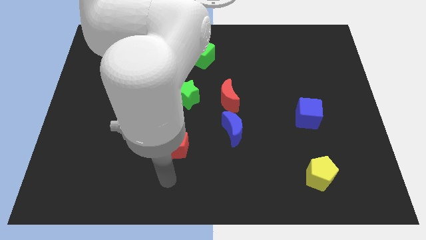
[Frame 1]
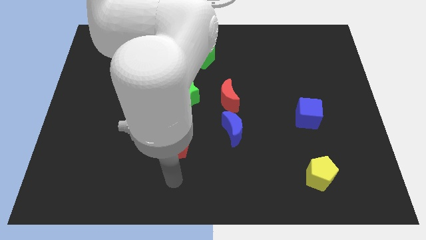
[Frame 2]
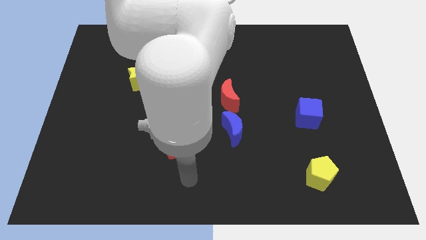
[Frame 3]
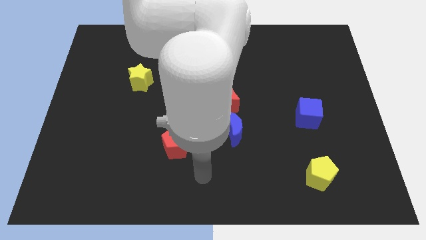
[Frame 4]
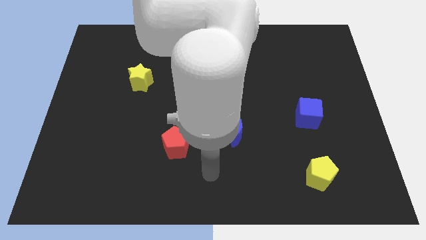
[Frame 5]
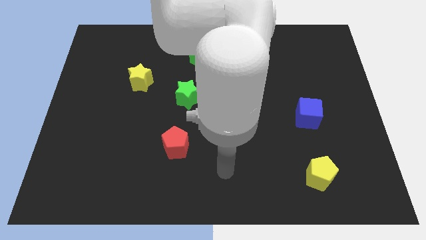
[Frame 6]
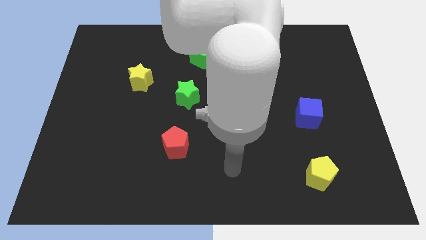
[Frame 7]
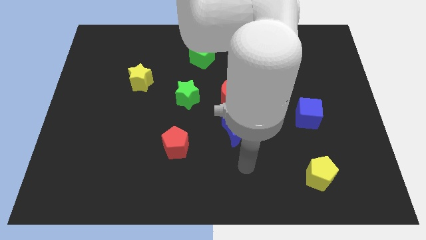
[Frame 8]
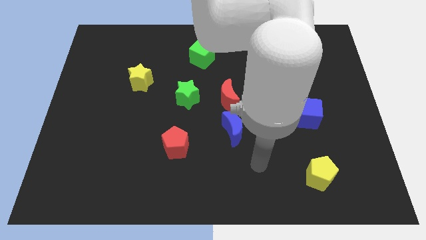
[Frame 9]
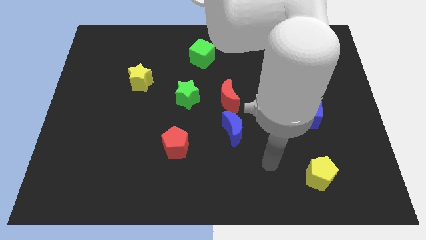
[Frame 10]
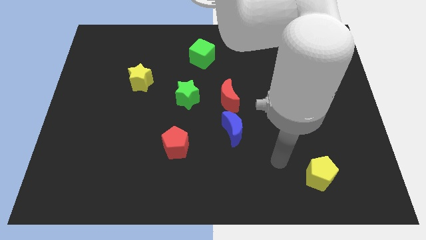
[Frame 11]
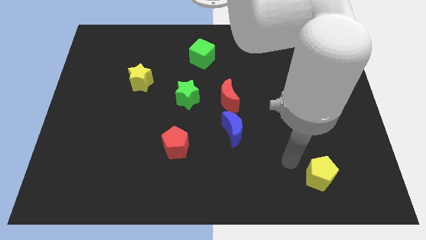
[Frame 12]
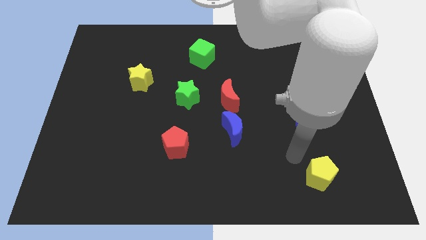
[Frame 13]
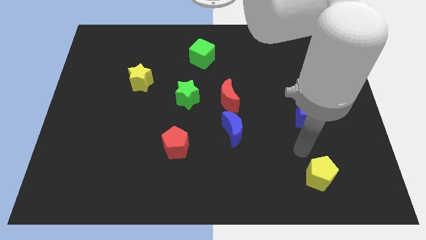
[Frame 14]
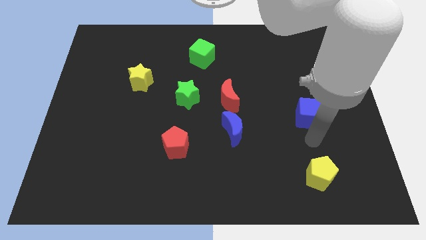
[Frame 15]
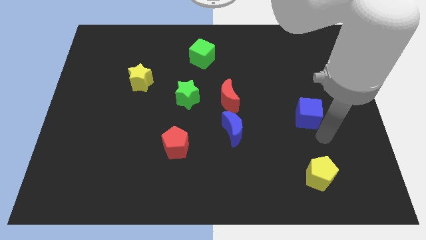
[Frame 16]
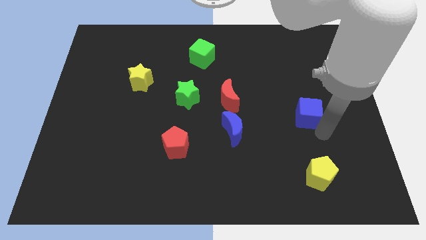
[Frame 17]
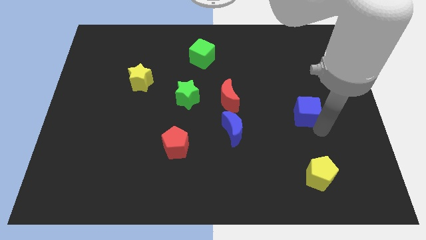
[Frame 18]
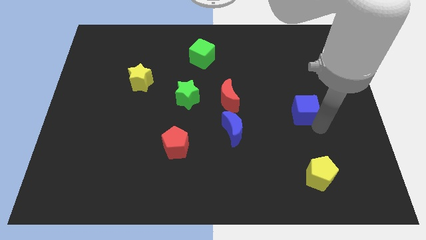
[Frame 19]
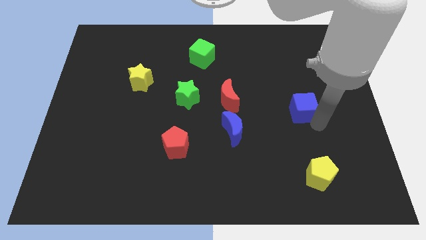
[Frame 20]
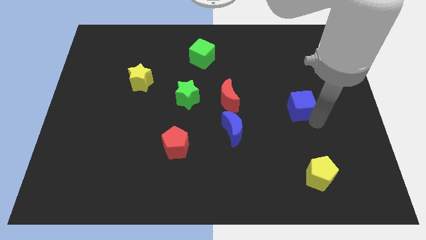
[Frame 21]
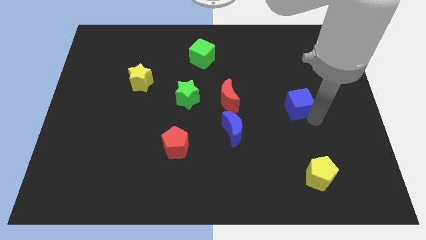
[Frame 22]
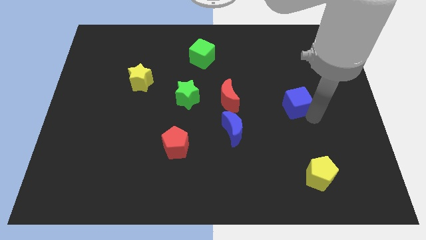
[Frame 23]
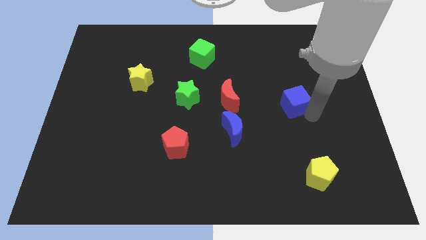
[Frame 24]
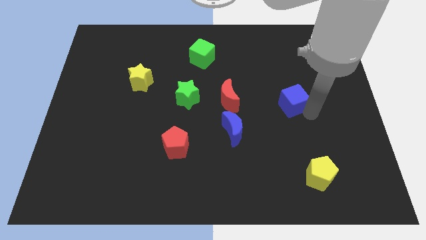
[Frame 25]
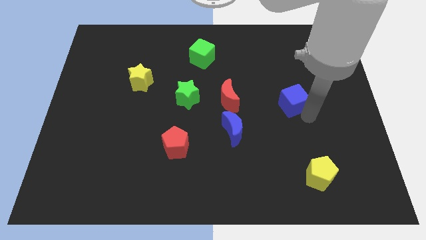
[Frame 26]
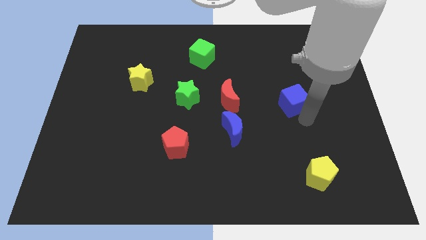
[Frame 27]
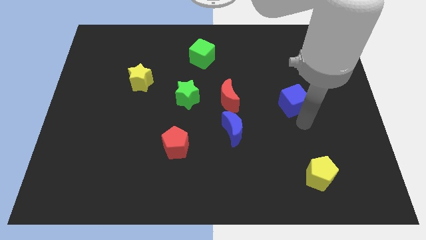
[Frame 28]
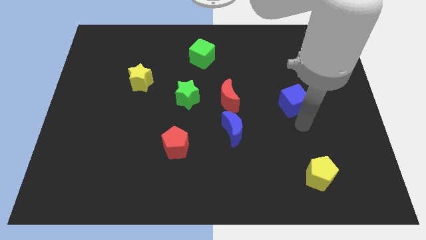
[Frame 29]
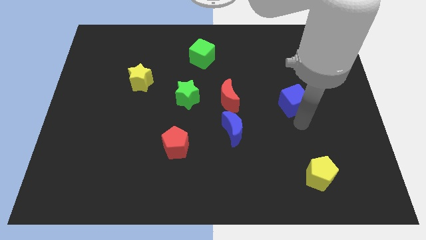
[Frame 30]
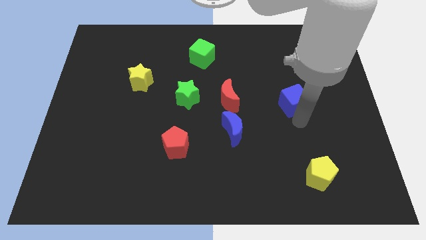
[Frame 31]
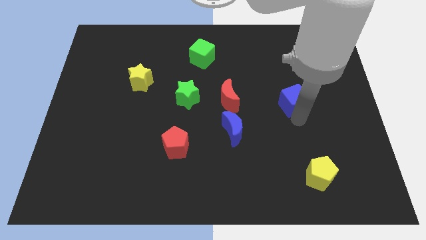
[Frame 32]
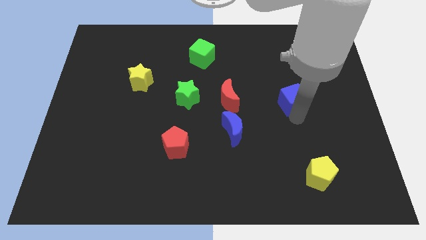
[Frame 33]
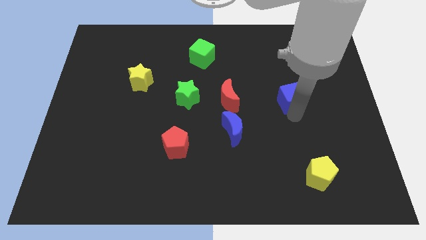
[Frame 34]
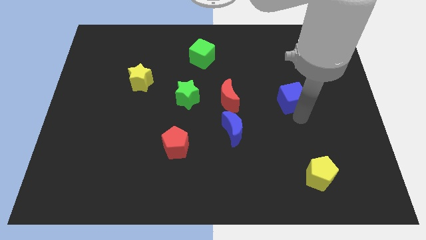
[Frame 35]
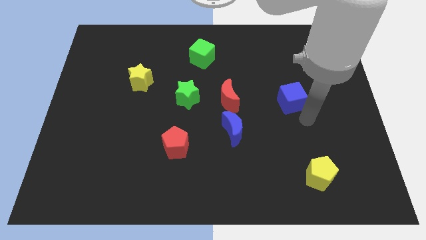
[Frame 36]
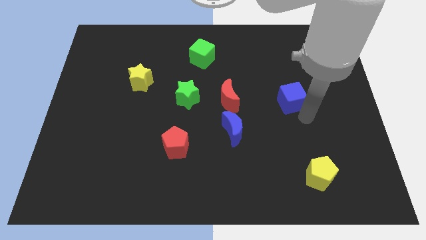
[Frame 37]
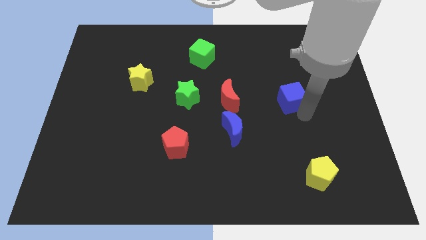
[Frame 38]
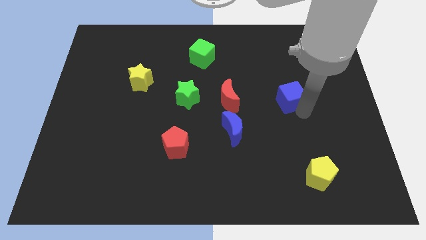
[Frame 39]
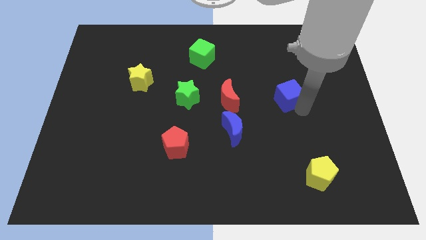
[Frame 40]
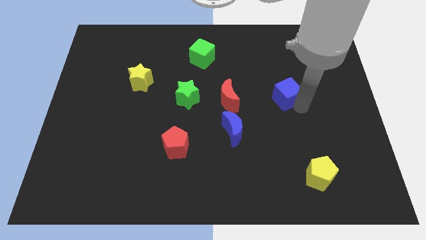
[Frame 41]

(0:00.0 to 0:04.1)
slightly slide the blue cube up and then left

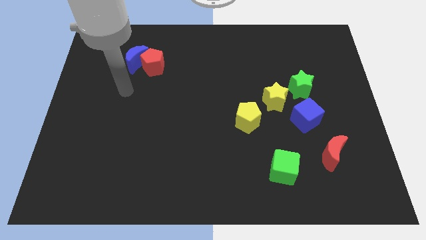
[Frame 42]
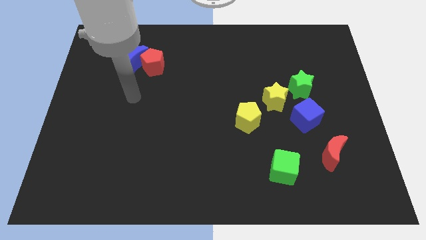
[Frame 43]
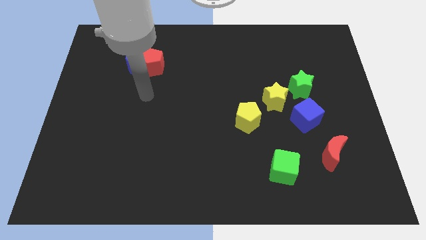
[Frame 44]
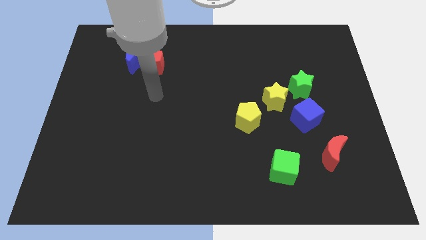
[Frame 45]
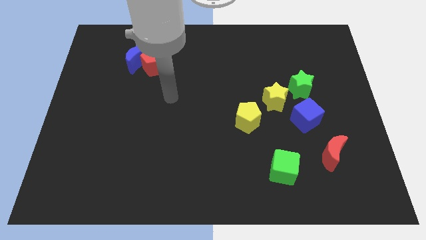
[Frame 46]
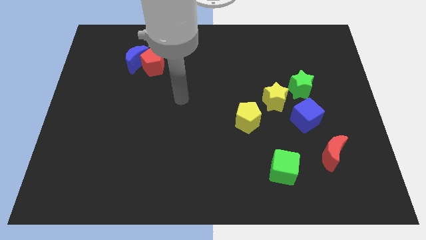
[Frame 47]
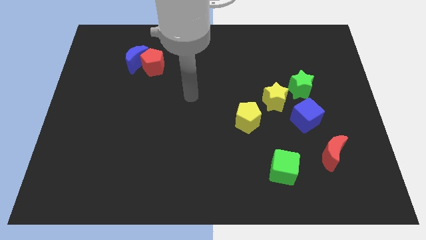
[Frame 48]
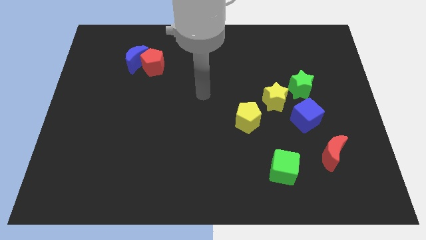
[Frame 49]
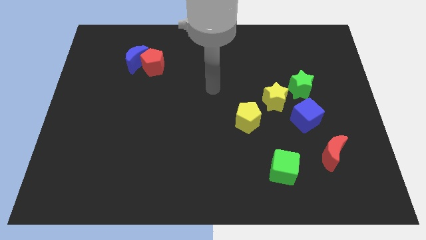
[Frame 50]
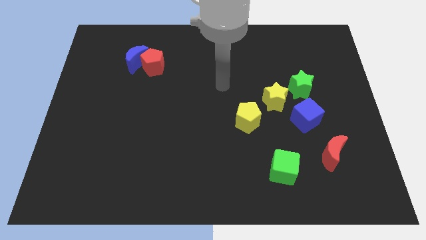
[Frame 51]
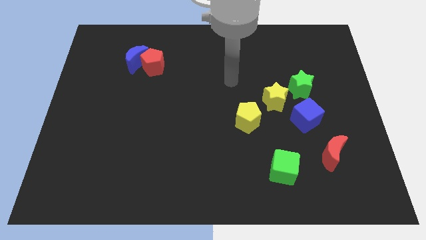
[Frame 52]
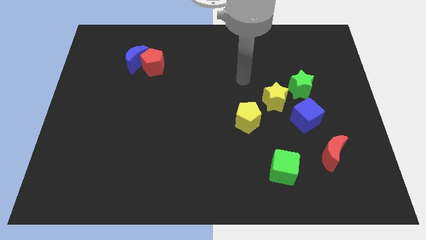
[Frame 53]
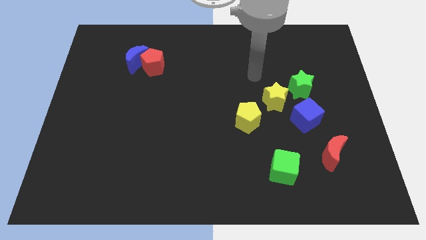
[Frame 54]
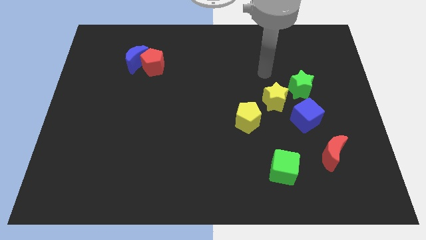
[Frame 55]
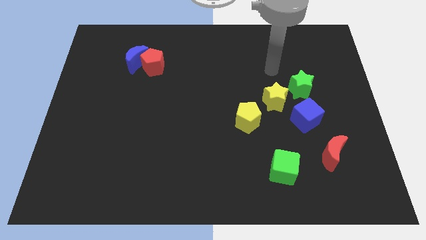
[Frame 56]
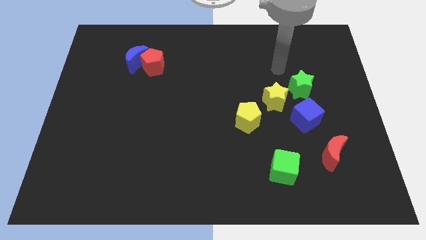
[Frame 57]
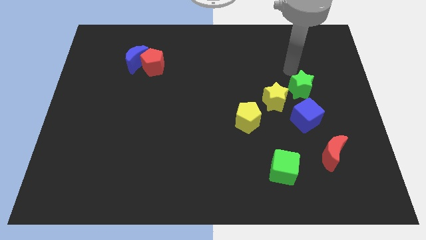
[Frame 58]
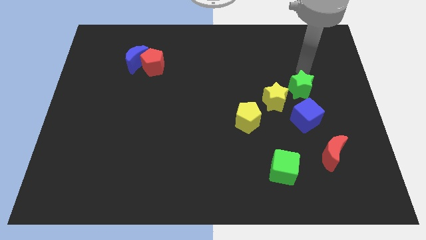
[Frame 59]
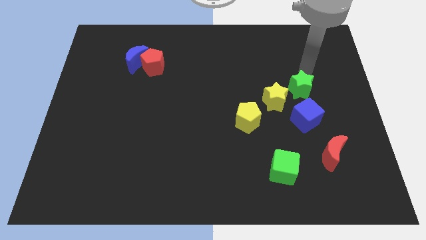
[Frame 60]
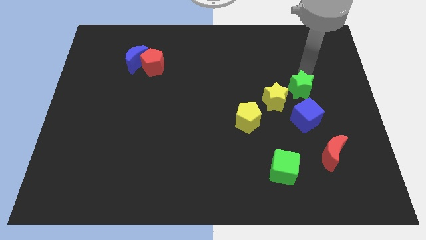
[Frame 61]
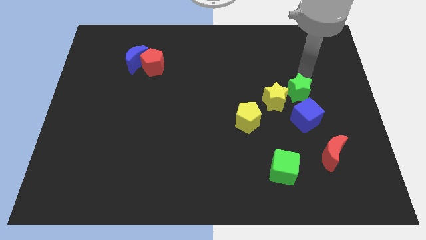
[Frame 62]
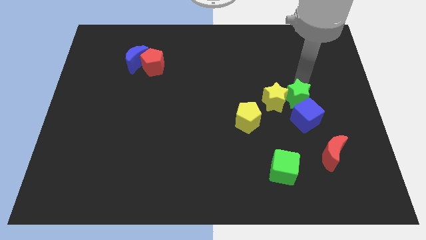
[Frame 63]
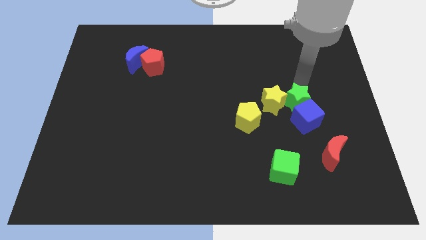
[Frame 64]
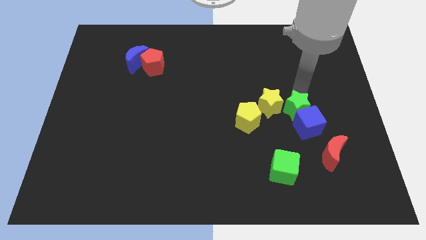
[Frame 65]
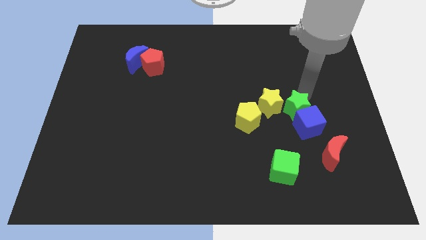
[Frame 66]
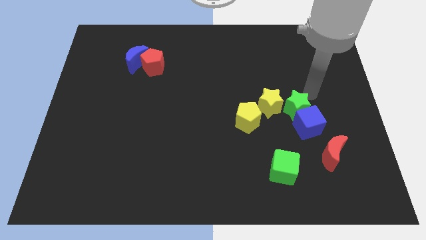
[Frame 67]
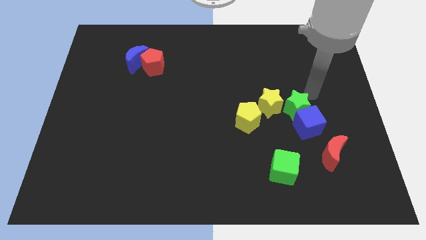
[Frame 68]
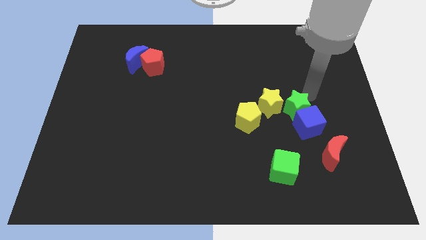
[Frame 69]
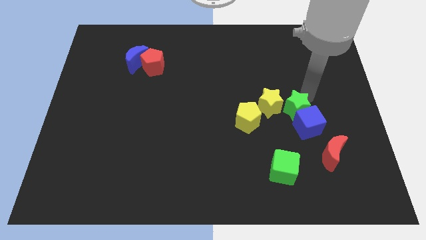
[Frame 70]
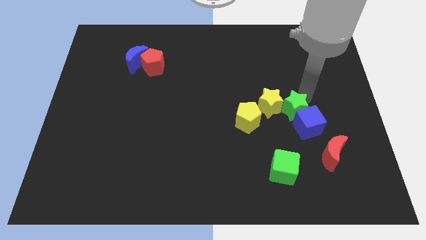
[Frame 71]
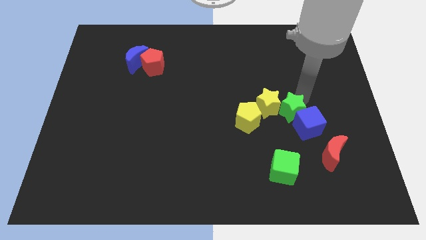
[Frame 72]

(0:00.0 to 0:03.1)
push the green star diagonally downwards and left a little bit

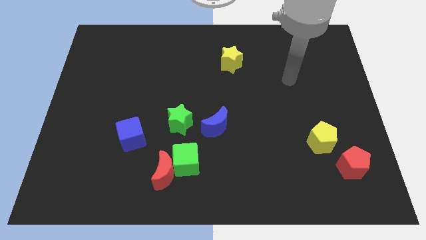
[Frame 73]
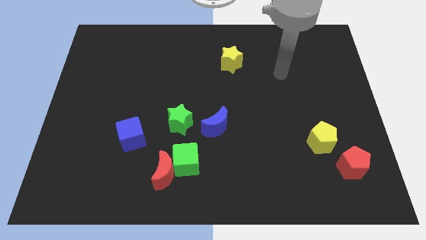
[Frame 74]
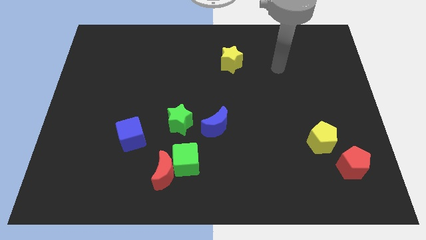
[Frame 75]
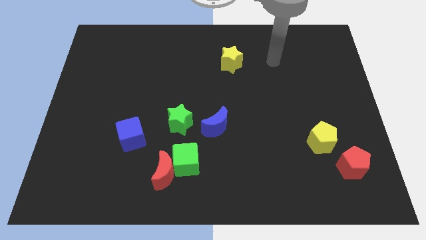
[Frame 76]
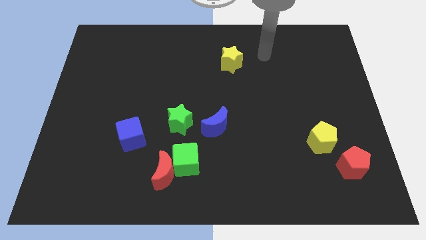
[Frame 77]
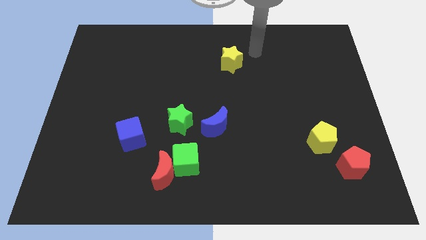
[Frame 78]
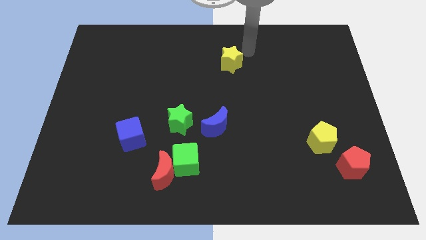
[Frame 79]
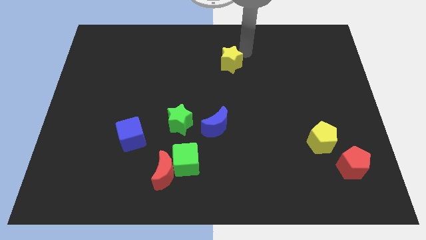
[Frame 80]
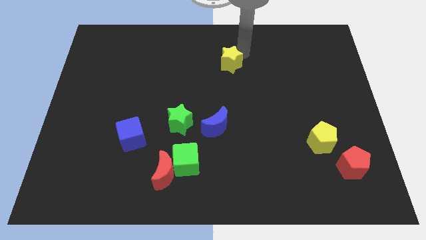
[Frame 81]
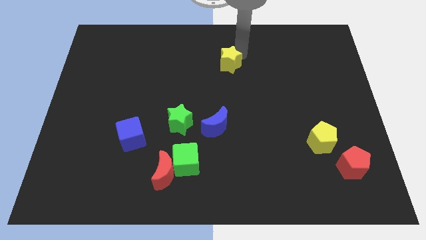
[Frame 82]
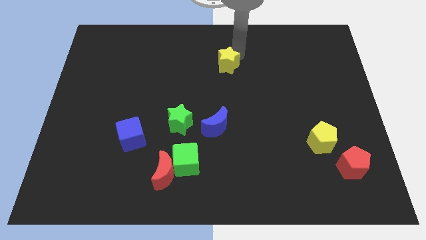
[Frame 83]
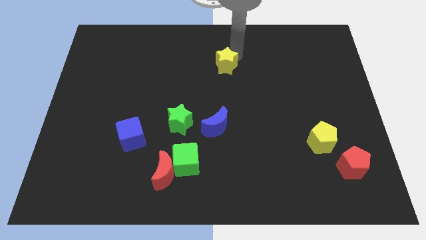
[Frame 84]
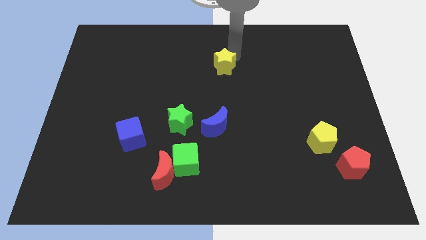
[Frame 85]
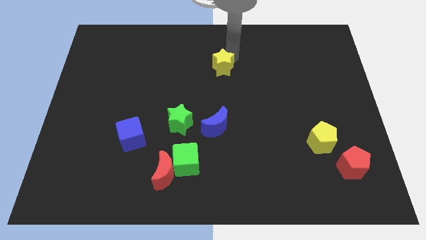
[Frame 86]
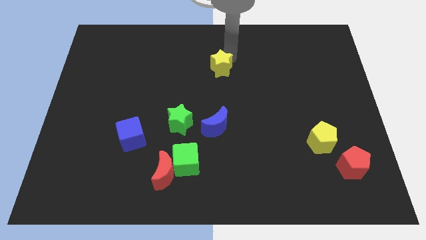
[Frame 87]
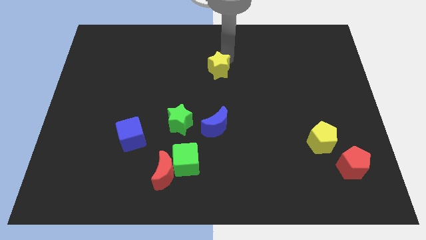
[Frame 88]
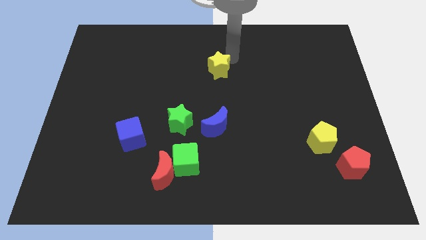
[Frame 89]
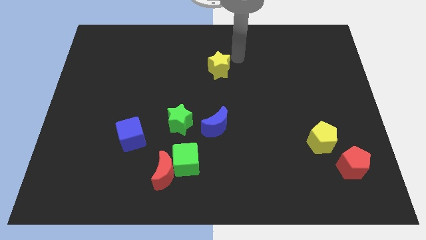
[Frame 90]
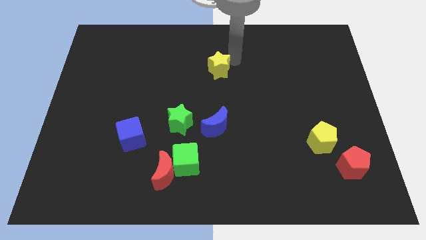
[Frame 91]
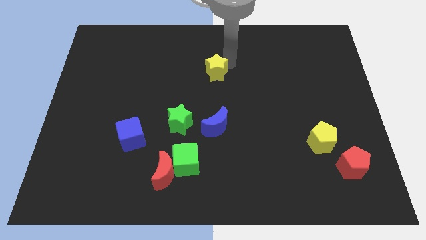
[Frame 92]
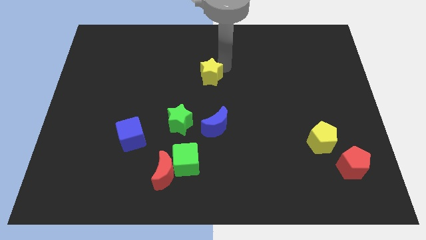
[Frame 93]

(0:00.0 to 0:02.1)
push the yellow star down and left diagonally somewhat
